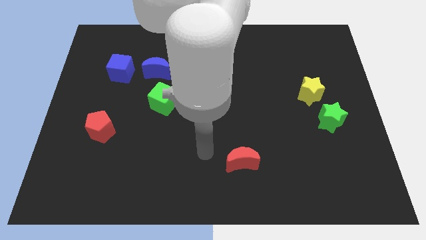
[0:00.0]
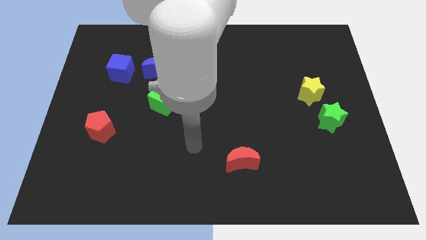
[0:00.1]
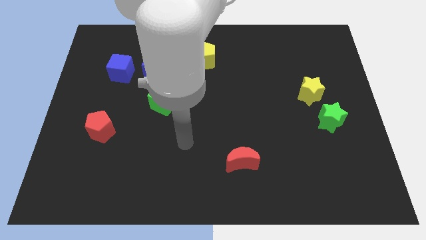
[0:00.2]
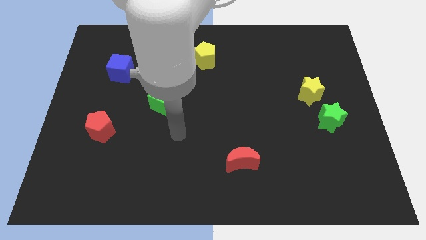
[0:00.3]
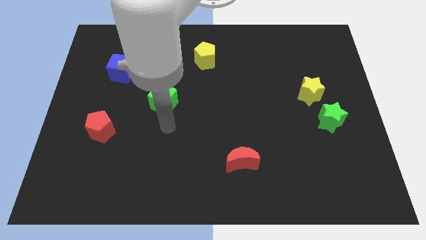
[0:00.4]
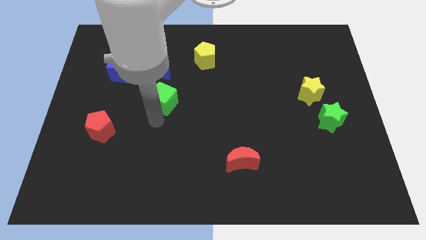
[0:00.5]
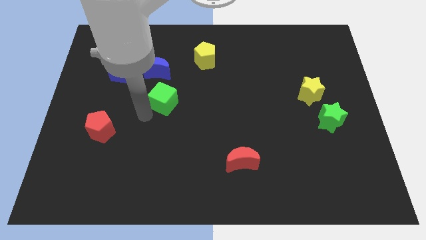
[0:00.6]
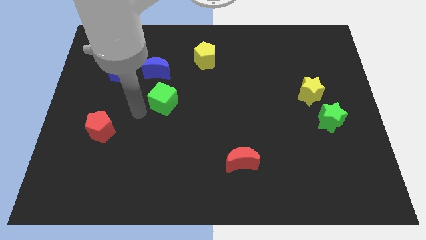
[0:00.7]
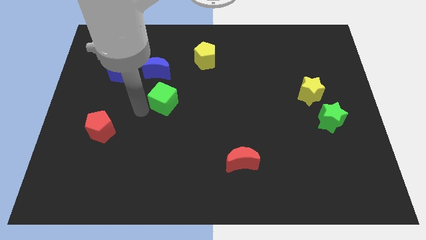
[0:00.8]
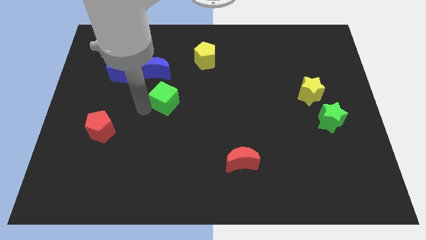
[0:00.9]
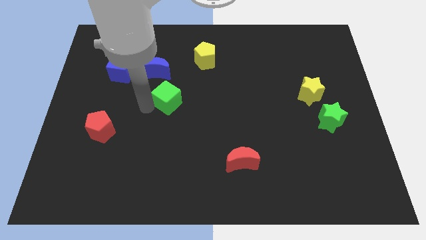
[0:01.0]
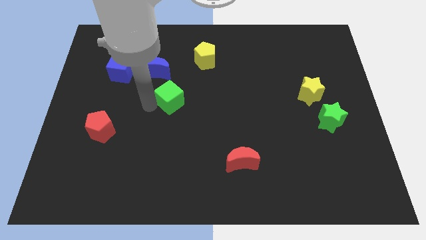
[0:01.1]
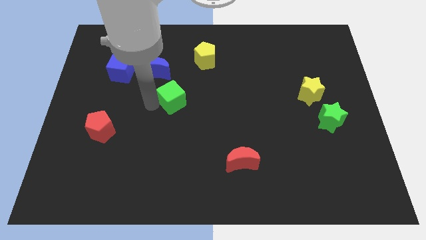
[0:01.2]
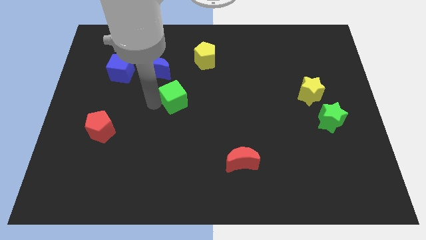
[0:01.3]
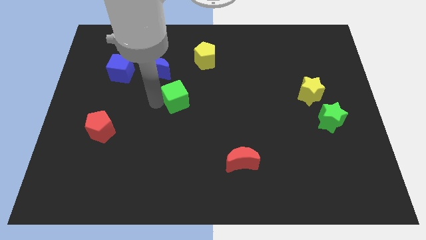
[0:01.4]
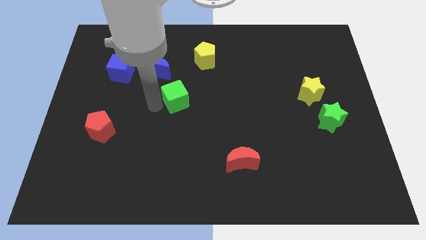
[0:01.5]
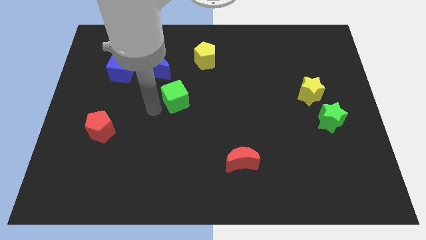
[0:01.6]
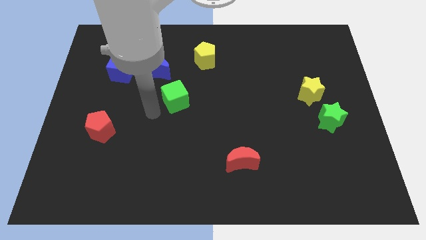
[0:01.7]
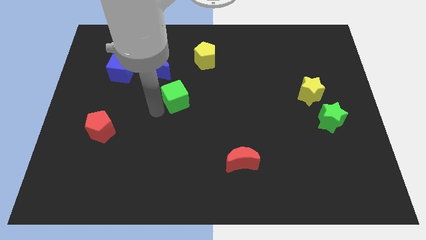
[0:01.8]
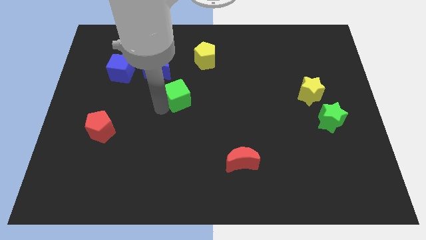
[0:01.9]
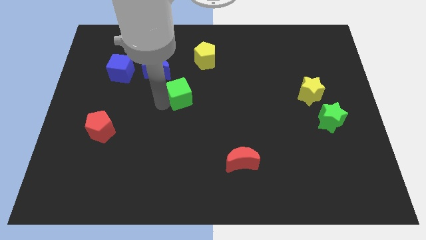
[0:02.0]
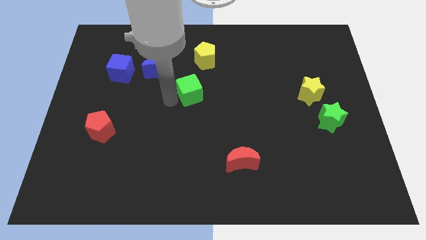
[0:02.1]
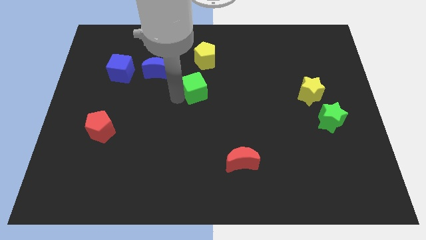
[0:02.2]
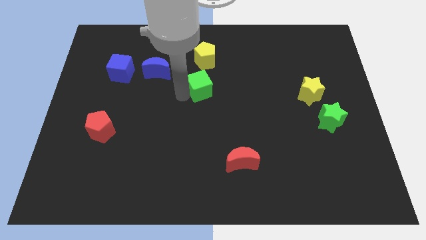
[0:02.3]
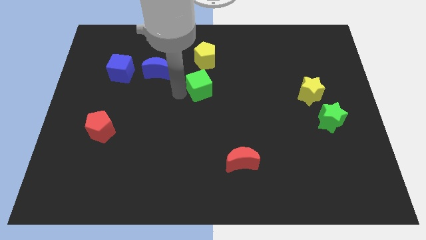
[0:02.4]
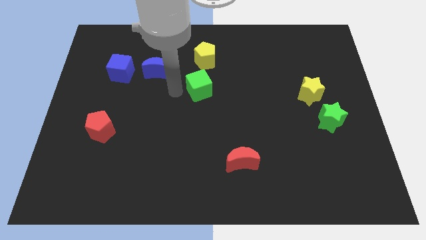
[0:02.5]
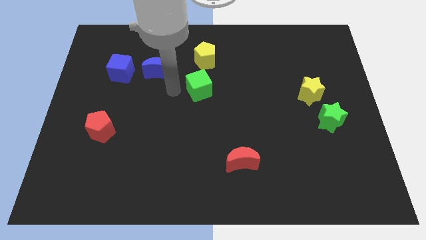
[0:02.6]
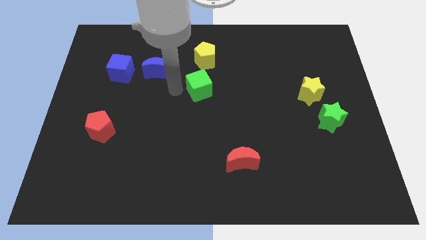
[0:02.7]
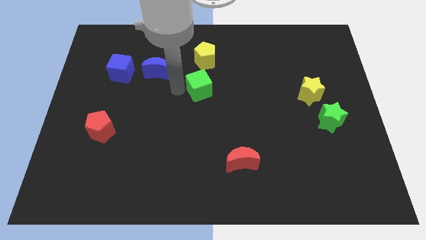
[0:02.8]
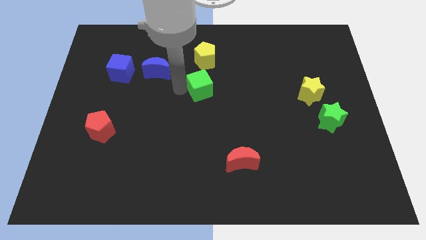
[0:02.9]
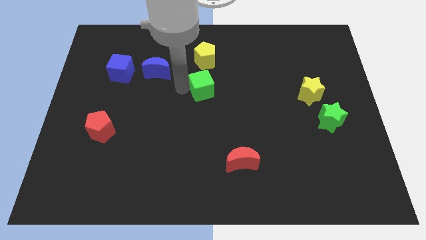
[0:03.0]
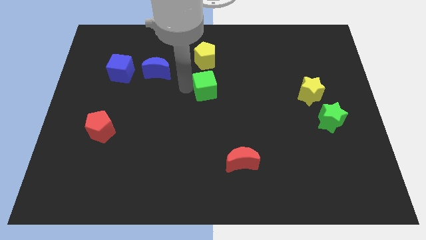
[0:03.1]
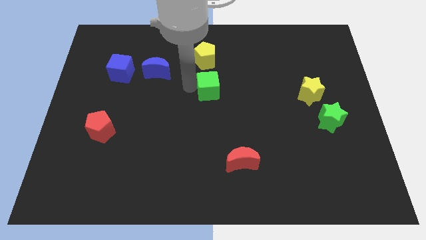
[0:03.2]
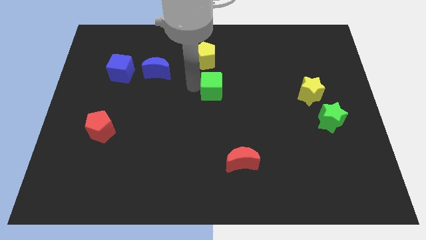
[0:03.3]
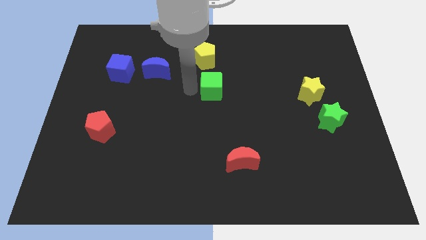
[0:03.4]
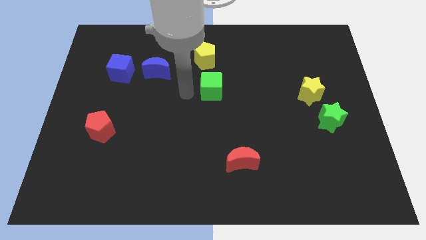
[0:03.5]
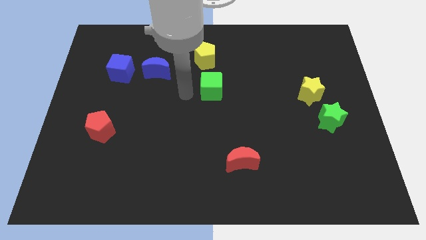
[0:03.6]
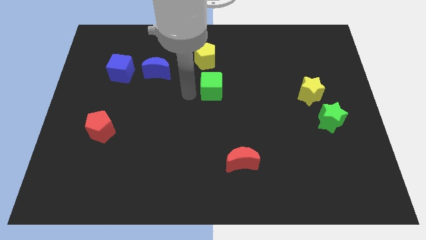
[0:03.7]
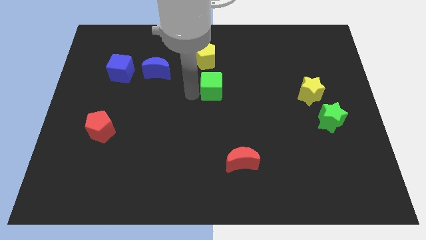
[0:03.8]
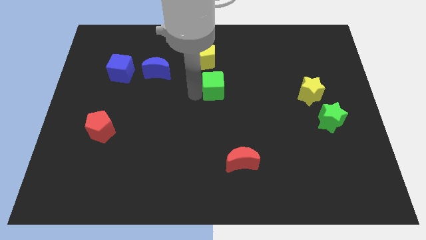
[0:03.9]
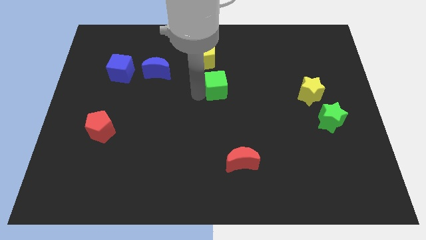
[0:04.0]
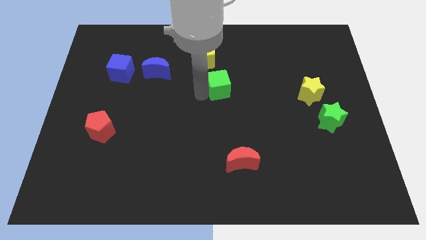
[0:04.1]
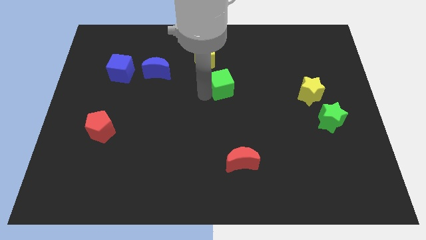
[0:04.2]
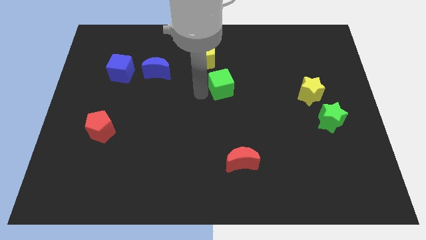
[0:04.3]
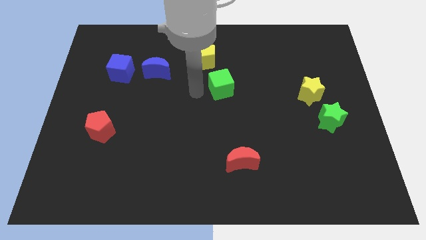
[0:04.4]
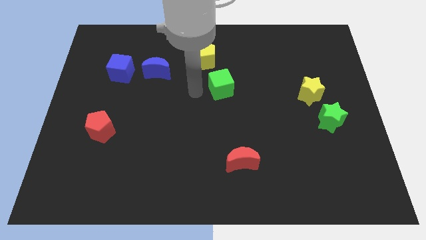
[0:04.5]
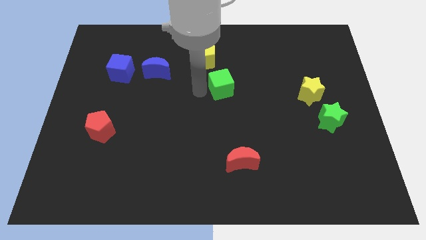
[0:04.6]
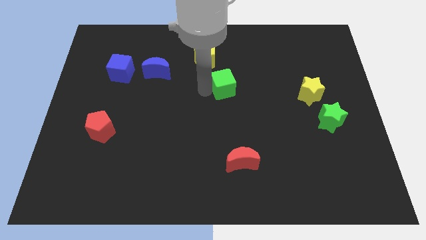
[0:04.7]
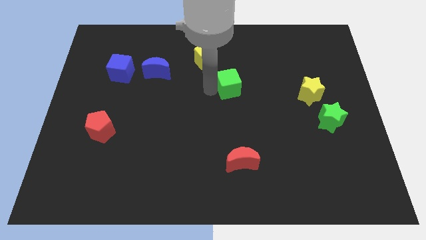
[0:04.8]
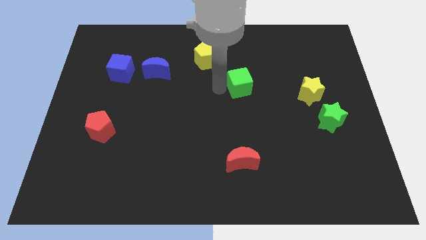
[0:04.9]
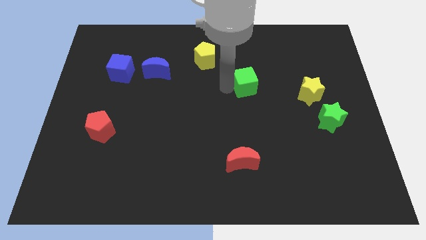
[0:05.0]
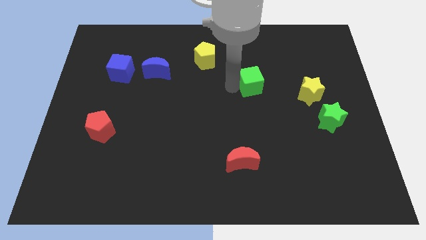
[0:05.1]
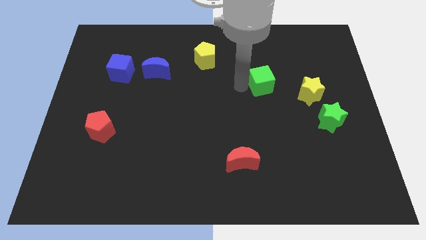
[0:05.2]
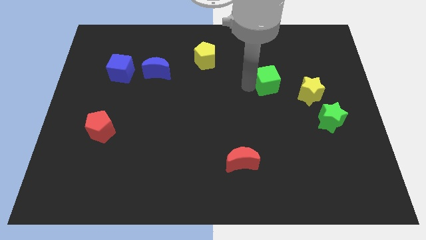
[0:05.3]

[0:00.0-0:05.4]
move the green cube diagonally up and to the left of the yellow star

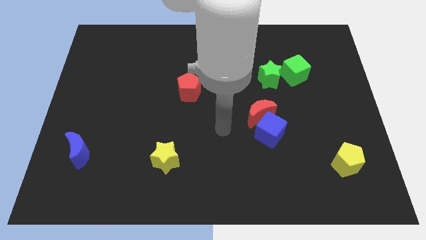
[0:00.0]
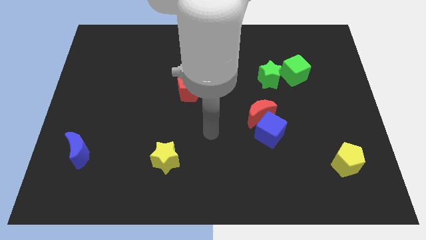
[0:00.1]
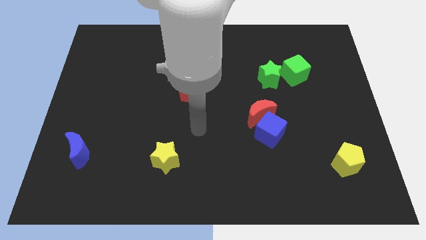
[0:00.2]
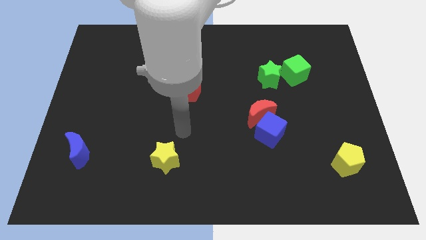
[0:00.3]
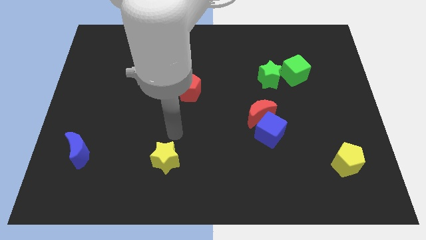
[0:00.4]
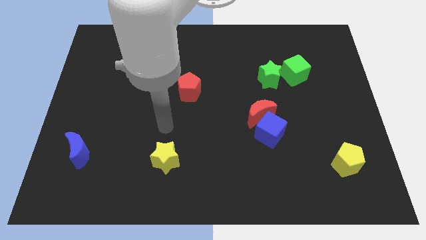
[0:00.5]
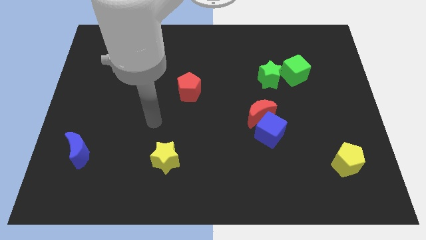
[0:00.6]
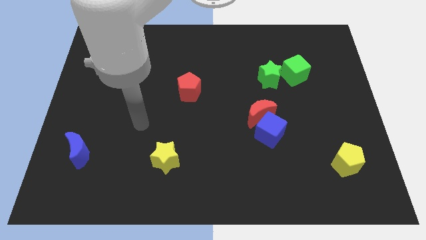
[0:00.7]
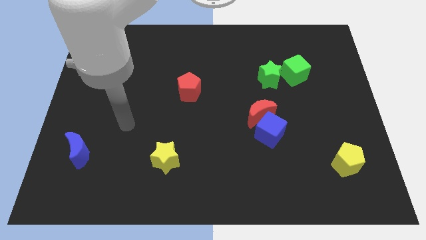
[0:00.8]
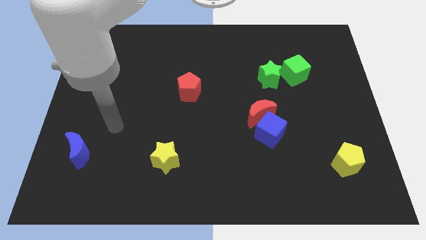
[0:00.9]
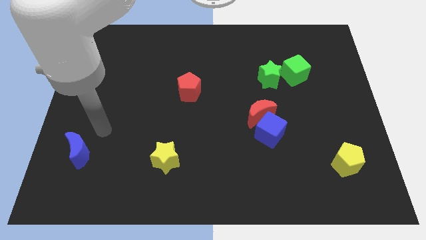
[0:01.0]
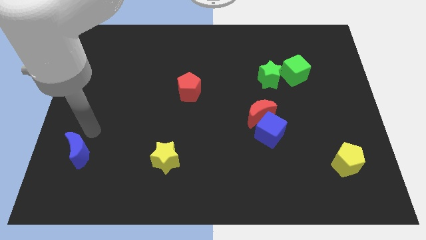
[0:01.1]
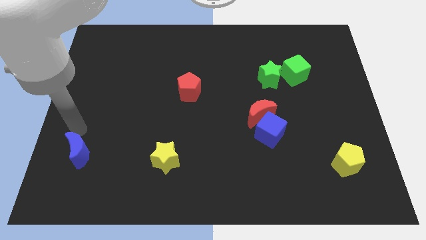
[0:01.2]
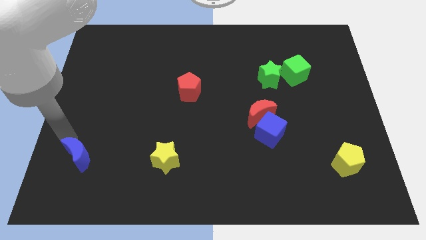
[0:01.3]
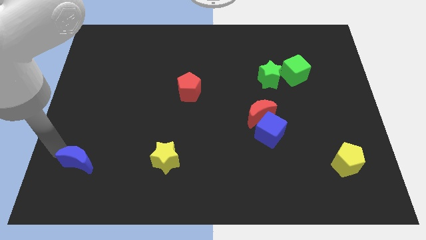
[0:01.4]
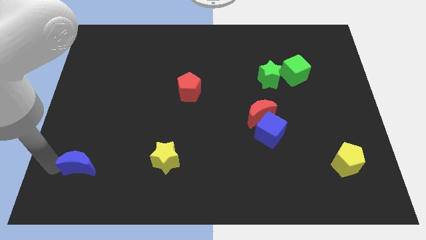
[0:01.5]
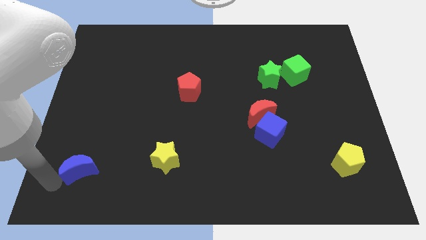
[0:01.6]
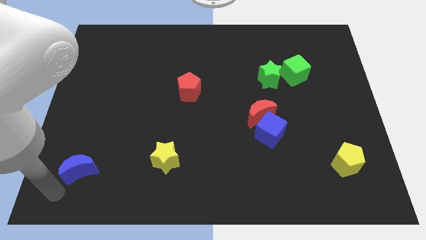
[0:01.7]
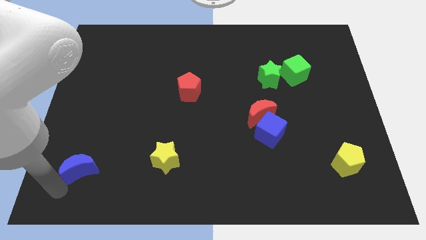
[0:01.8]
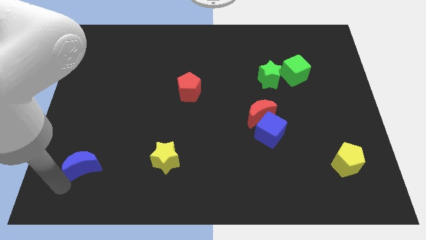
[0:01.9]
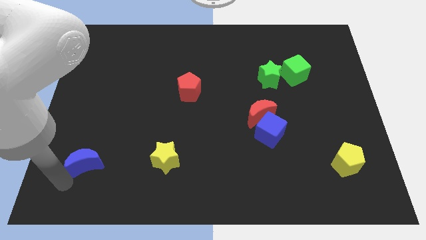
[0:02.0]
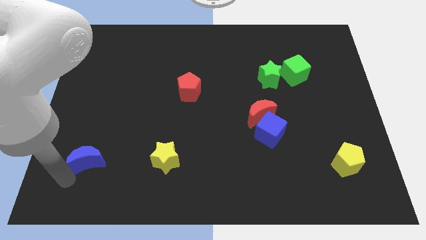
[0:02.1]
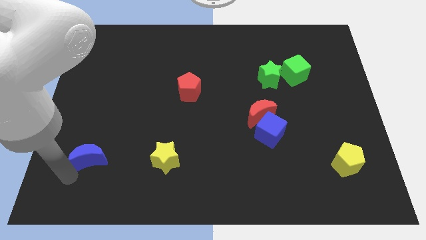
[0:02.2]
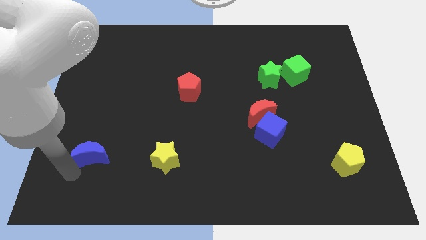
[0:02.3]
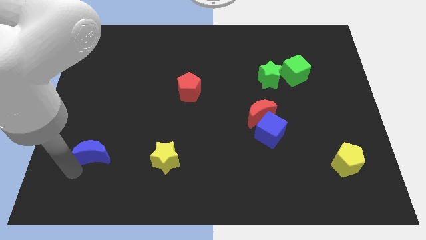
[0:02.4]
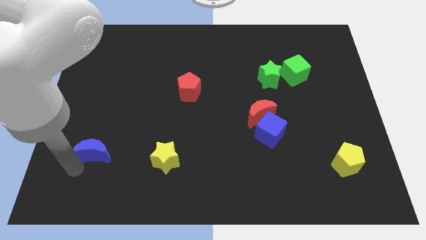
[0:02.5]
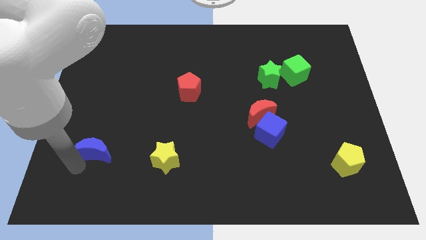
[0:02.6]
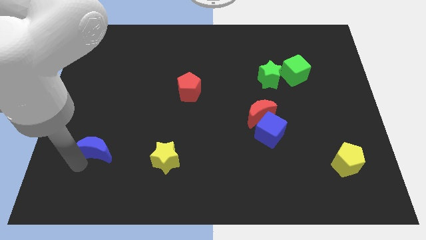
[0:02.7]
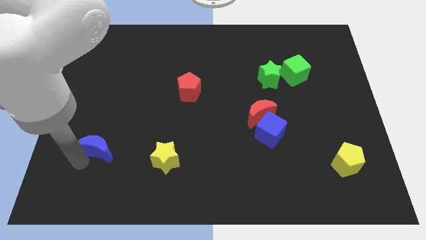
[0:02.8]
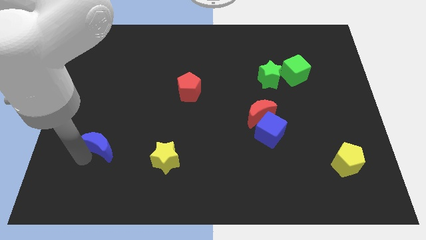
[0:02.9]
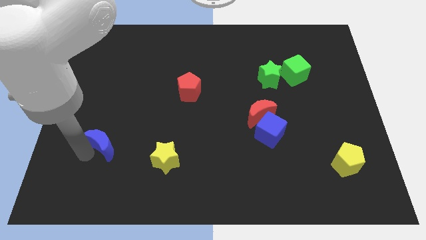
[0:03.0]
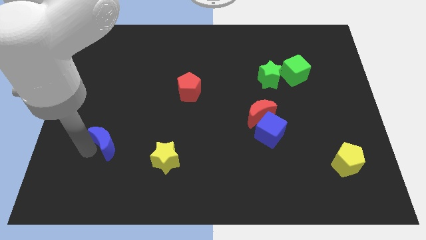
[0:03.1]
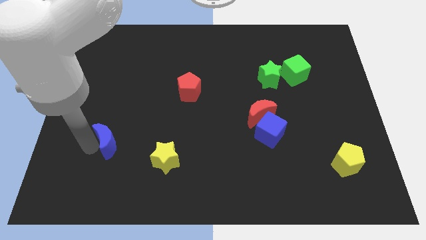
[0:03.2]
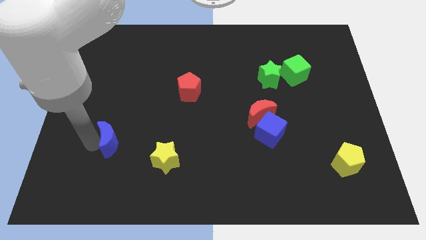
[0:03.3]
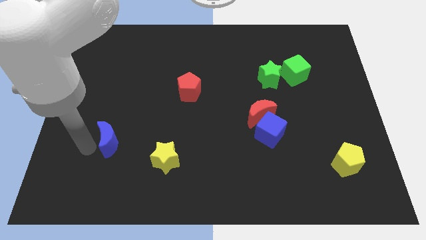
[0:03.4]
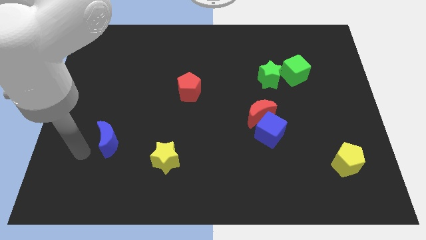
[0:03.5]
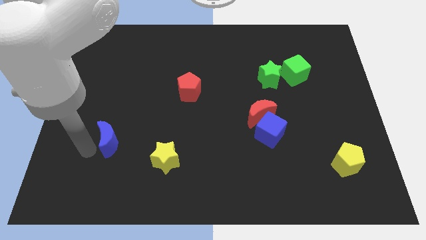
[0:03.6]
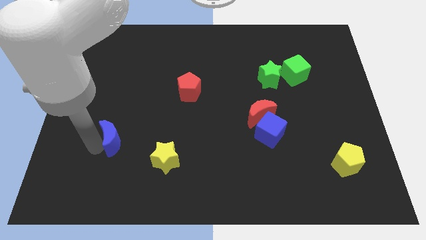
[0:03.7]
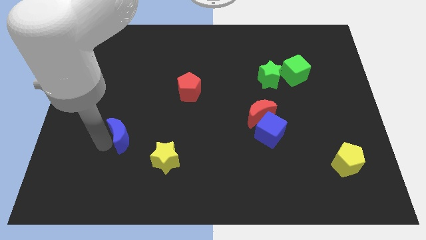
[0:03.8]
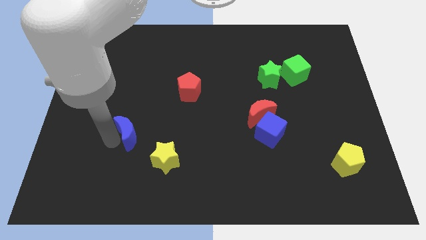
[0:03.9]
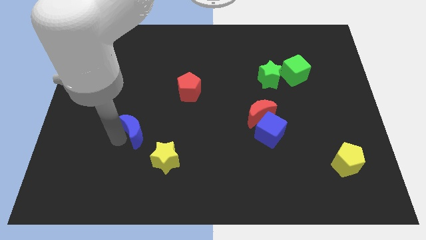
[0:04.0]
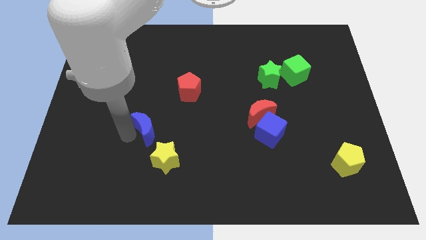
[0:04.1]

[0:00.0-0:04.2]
move the blue moon to the top of the yellow star
